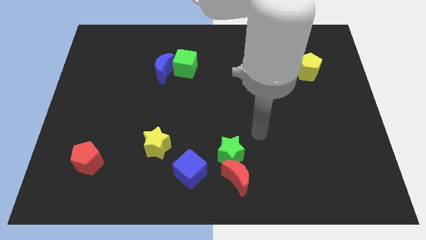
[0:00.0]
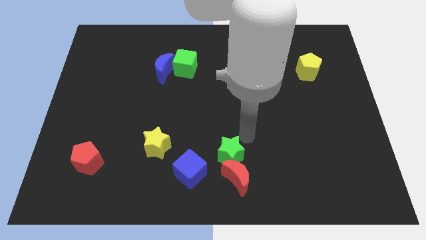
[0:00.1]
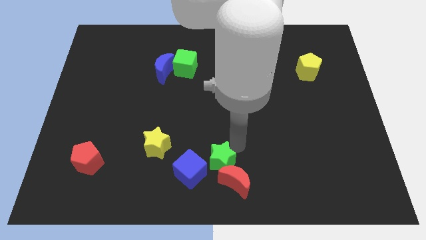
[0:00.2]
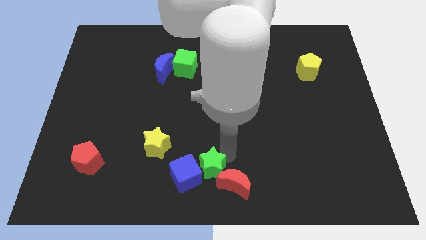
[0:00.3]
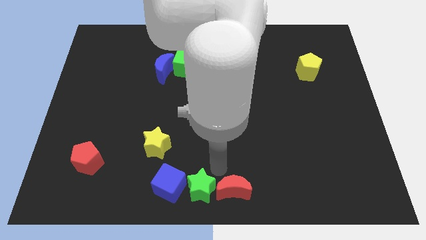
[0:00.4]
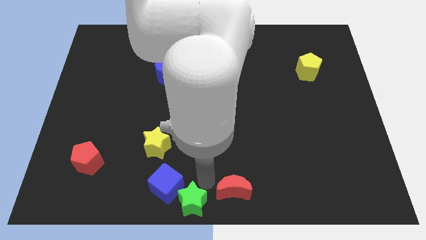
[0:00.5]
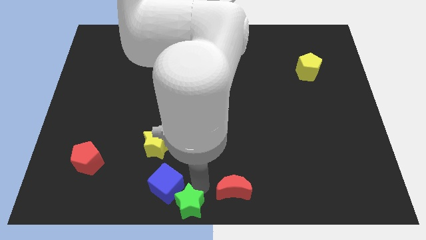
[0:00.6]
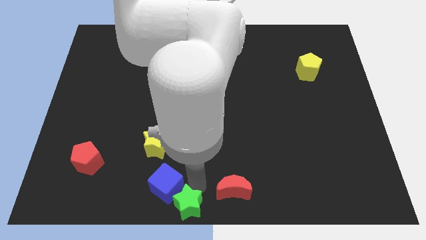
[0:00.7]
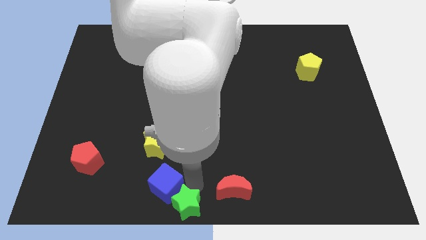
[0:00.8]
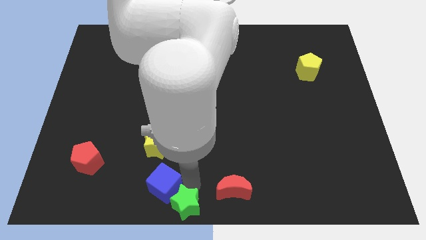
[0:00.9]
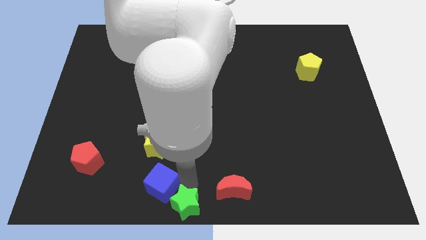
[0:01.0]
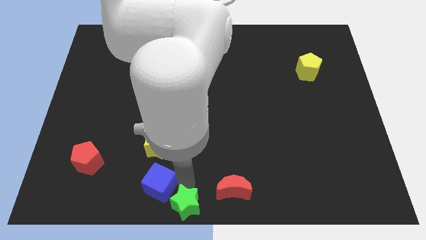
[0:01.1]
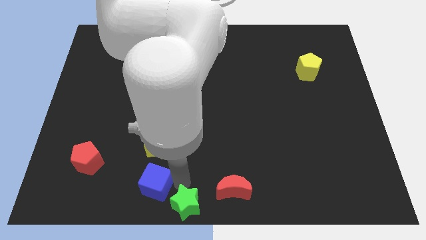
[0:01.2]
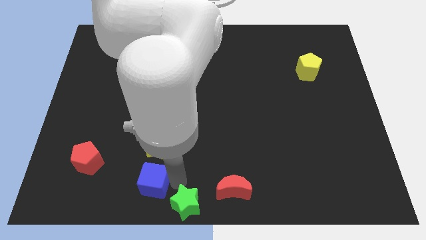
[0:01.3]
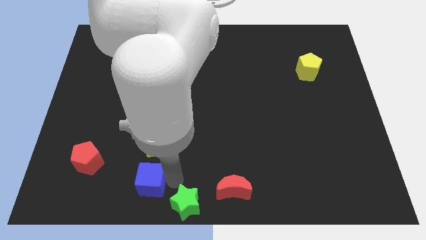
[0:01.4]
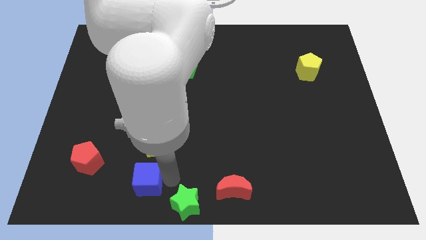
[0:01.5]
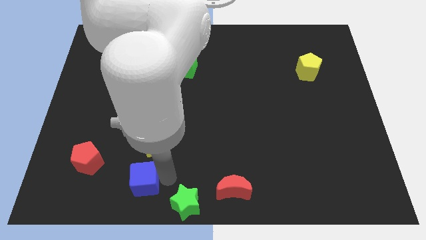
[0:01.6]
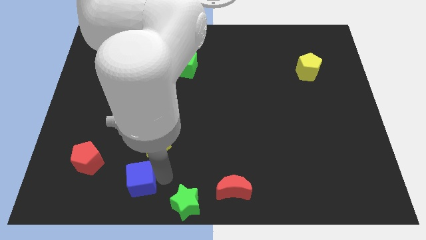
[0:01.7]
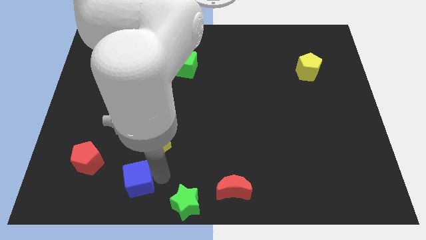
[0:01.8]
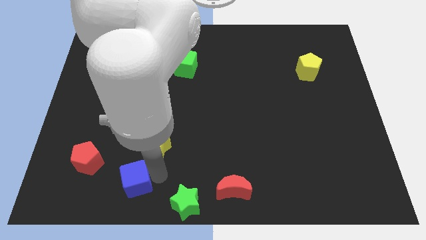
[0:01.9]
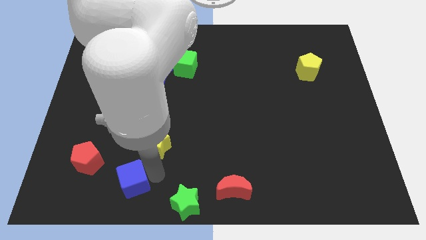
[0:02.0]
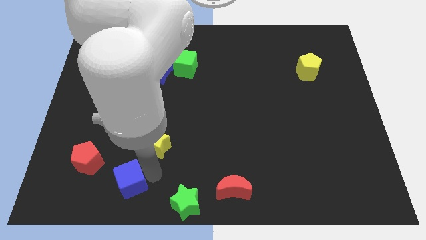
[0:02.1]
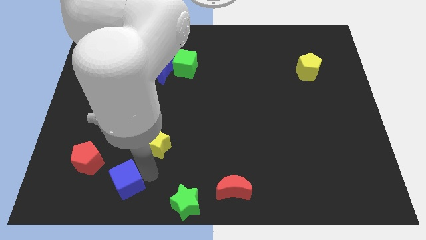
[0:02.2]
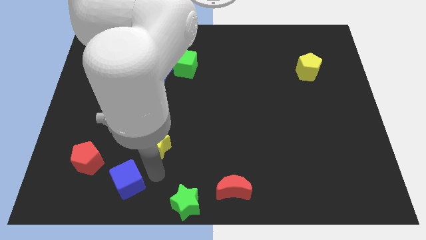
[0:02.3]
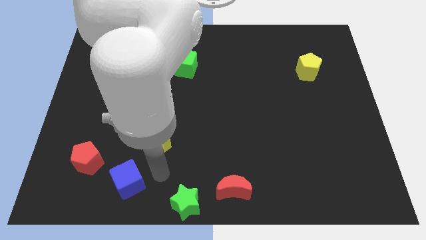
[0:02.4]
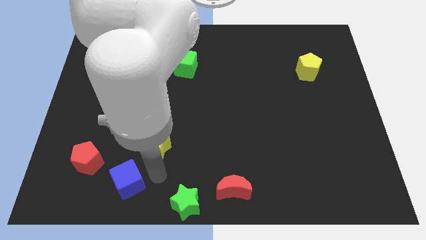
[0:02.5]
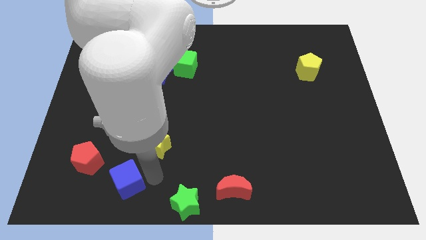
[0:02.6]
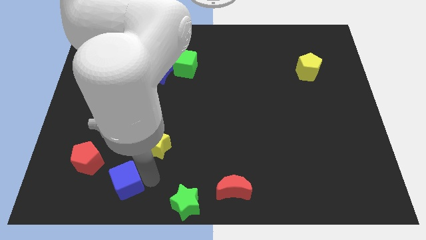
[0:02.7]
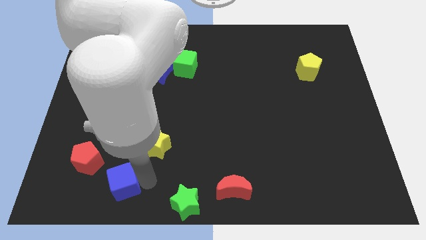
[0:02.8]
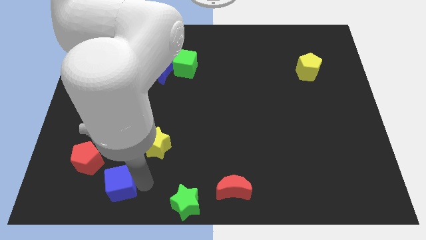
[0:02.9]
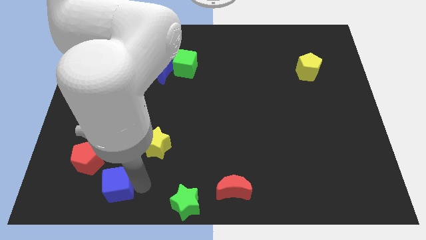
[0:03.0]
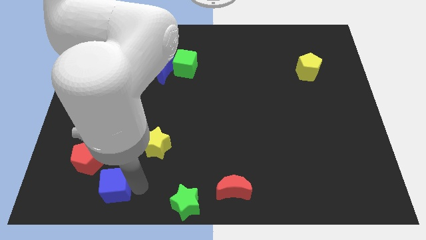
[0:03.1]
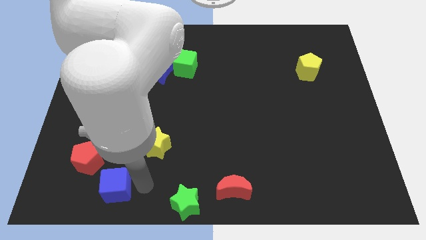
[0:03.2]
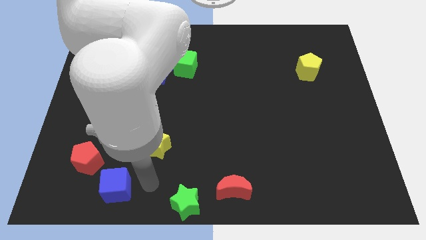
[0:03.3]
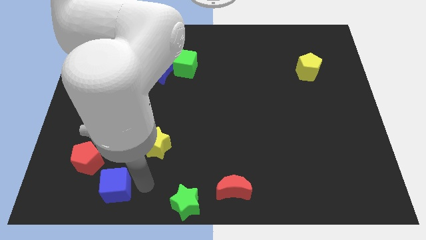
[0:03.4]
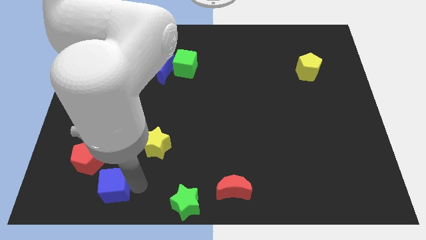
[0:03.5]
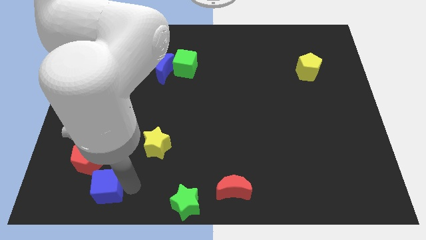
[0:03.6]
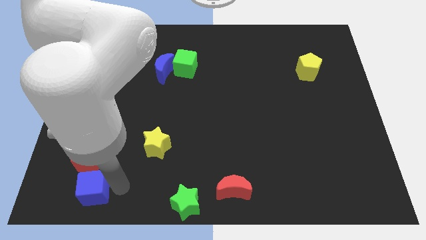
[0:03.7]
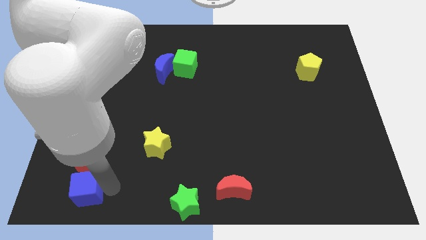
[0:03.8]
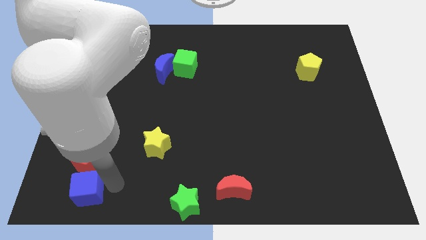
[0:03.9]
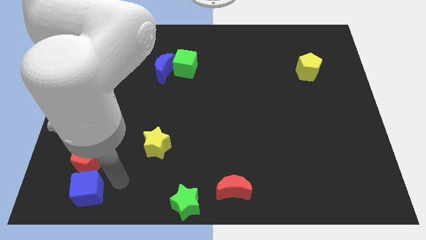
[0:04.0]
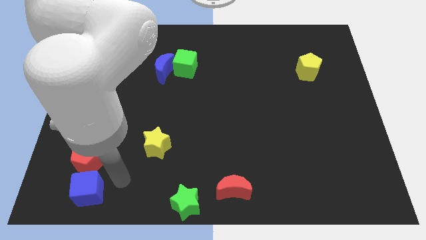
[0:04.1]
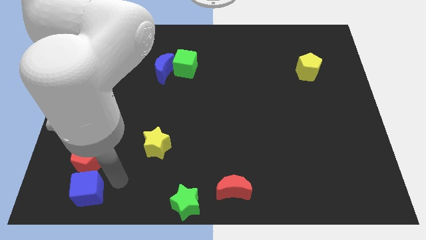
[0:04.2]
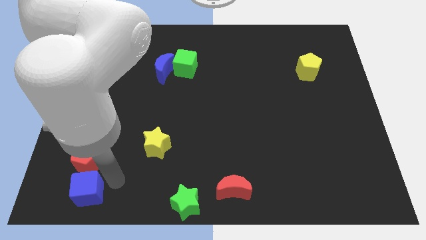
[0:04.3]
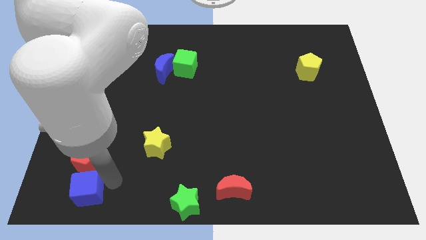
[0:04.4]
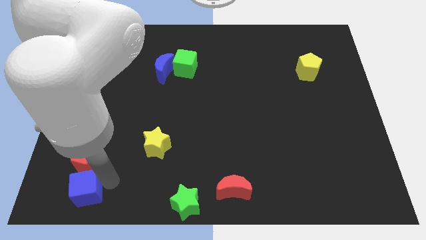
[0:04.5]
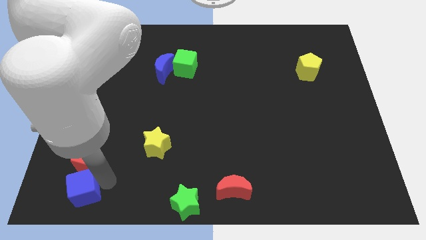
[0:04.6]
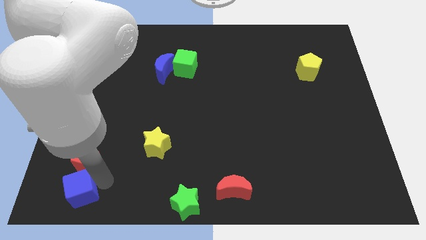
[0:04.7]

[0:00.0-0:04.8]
put the blue cube to the lower left corner

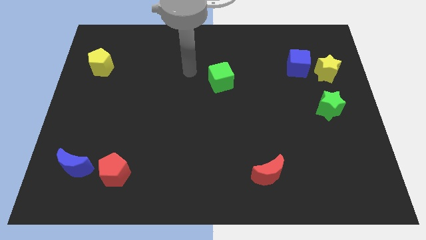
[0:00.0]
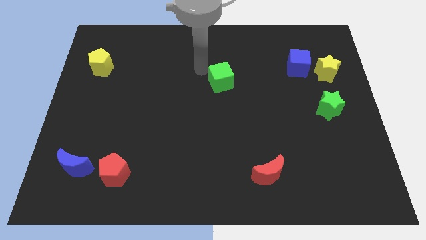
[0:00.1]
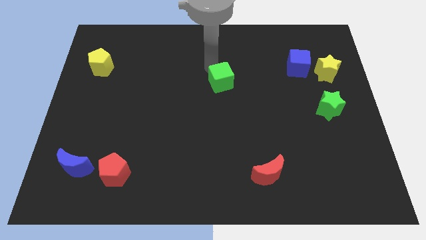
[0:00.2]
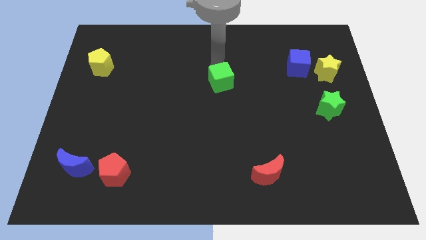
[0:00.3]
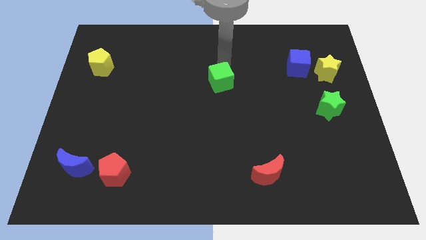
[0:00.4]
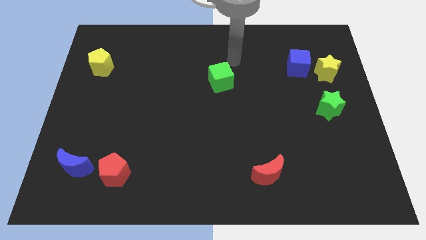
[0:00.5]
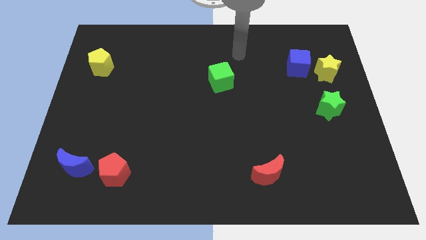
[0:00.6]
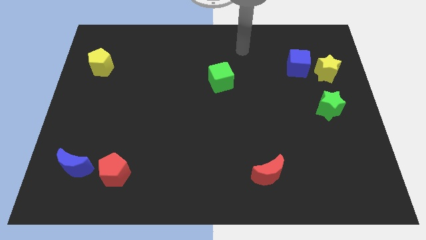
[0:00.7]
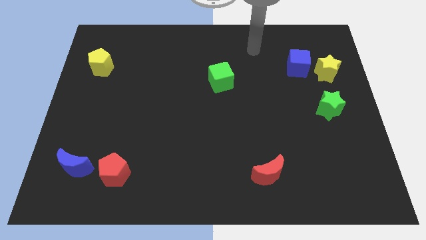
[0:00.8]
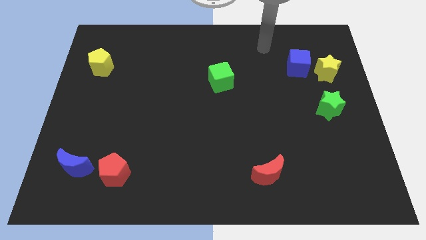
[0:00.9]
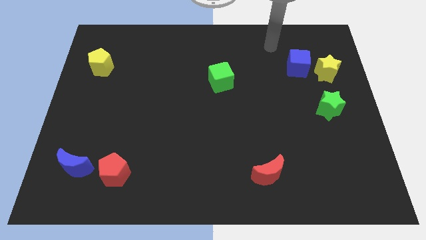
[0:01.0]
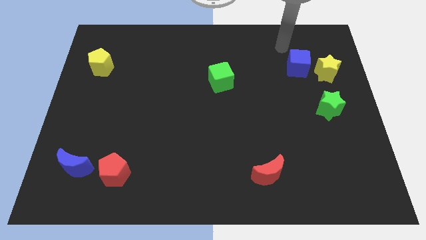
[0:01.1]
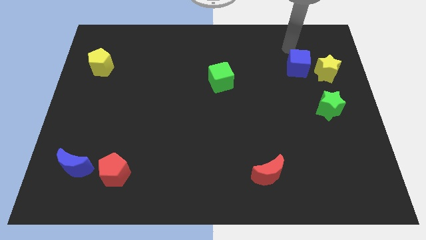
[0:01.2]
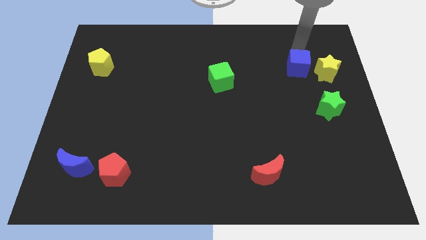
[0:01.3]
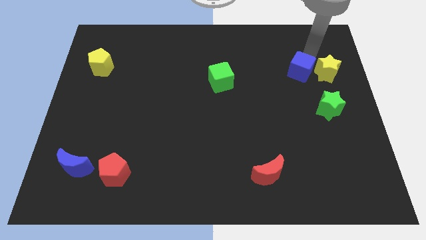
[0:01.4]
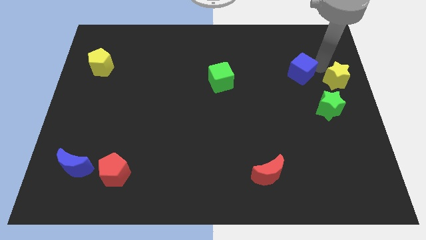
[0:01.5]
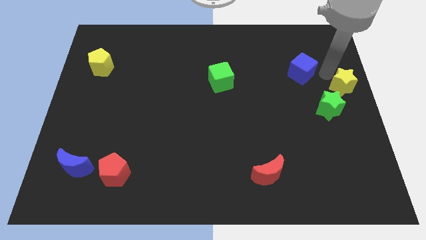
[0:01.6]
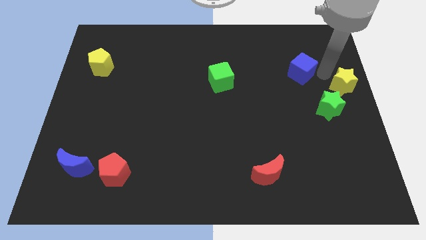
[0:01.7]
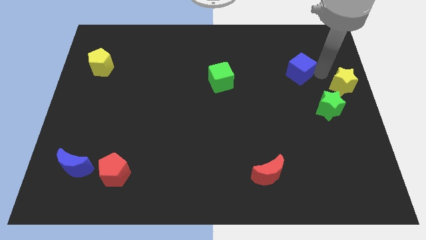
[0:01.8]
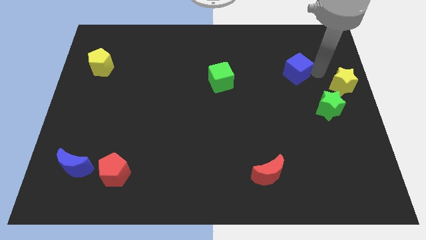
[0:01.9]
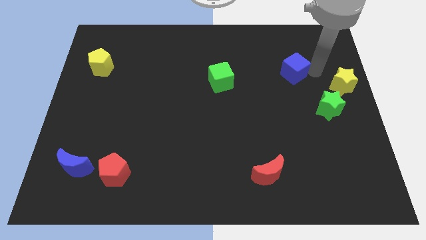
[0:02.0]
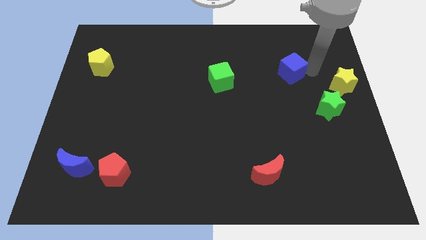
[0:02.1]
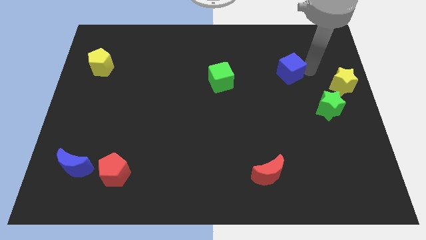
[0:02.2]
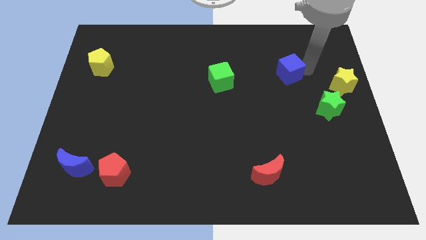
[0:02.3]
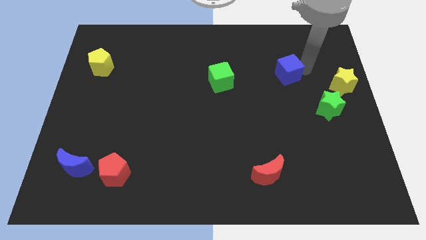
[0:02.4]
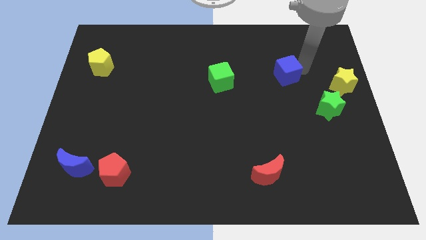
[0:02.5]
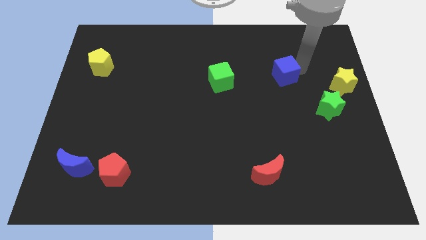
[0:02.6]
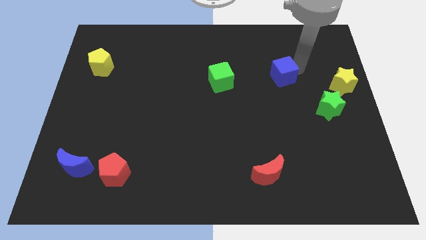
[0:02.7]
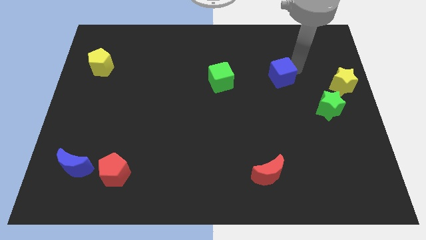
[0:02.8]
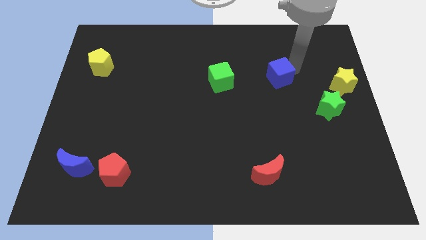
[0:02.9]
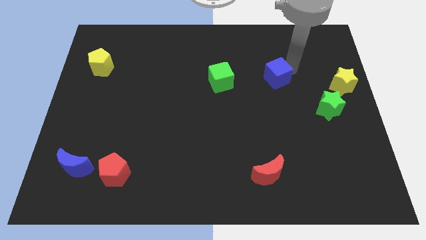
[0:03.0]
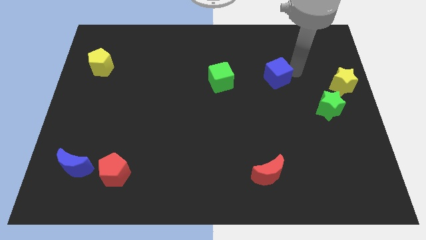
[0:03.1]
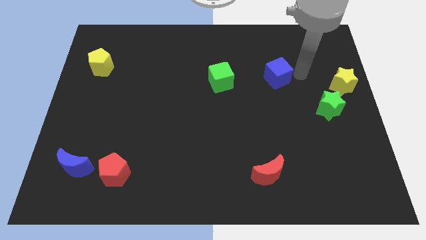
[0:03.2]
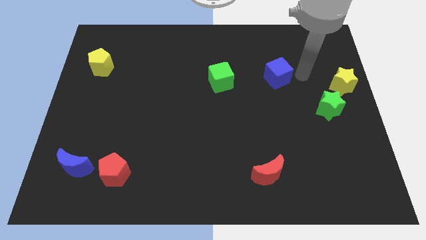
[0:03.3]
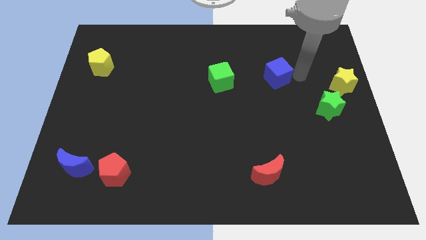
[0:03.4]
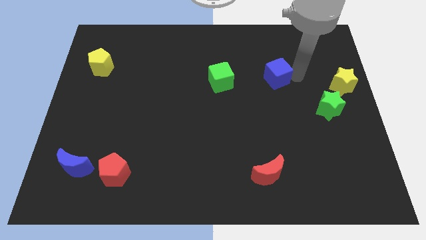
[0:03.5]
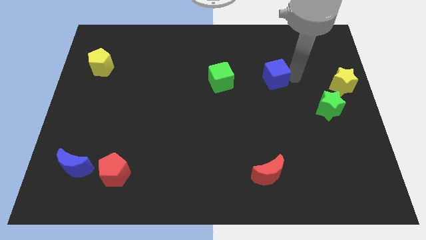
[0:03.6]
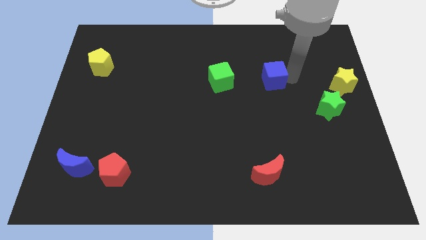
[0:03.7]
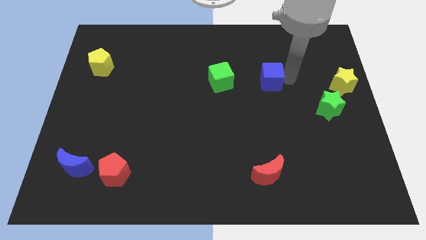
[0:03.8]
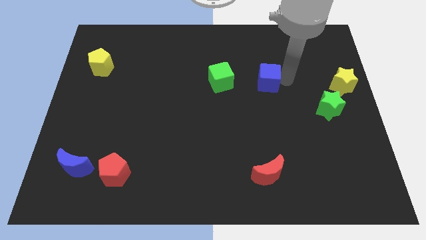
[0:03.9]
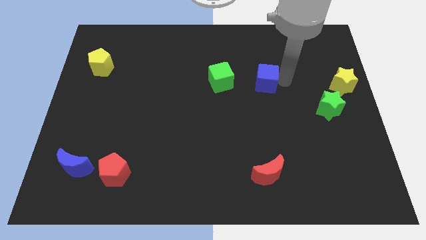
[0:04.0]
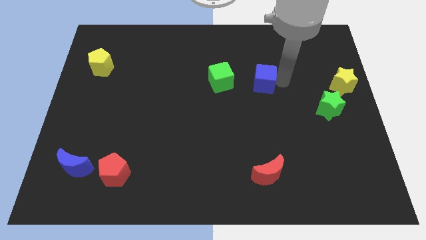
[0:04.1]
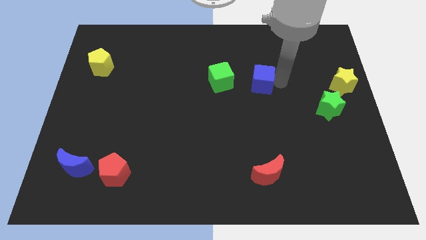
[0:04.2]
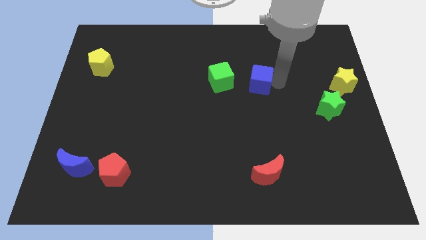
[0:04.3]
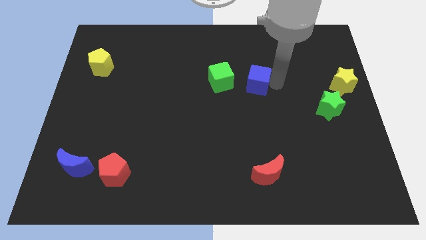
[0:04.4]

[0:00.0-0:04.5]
slide the blue cube to the middle of the board
